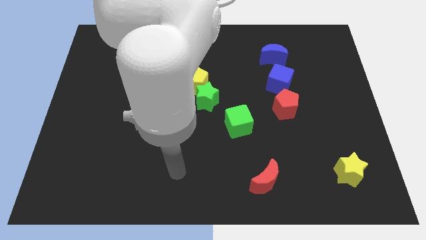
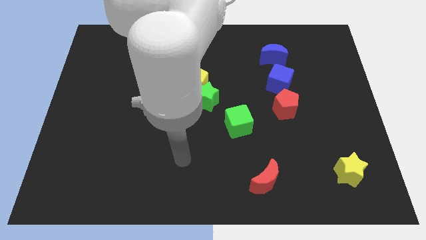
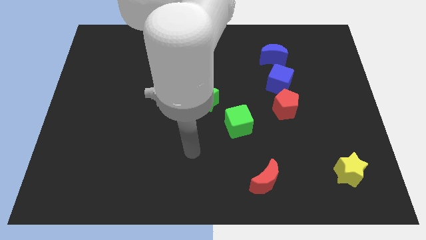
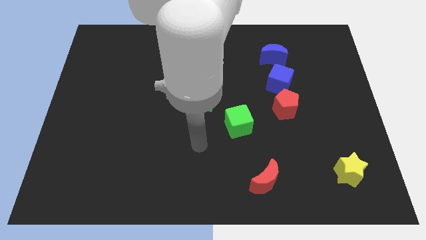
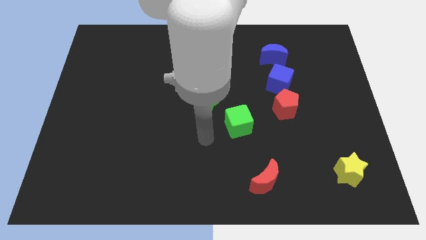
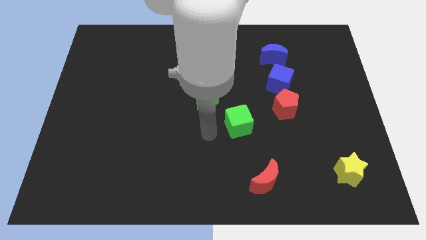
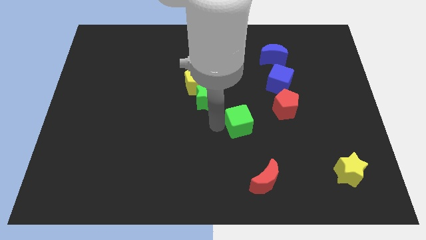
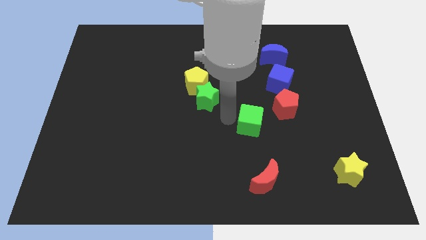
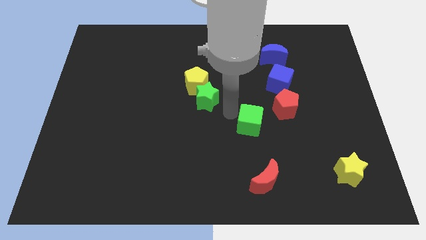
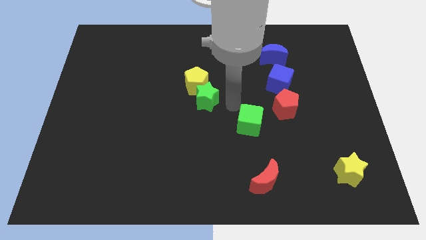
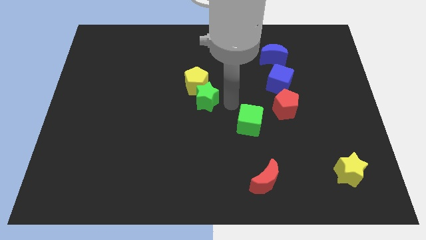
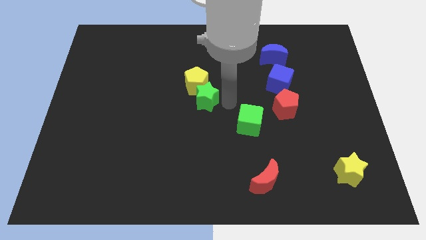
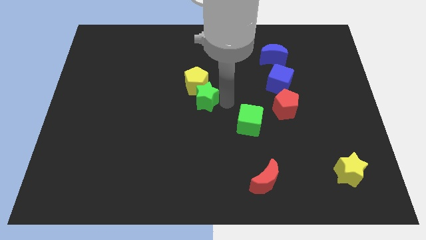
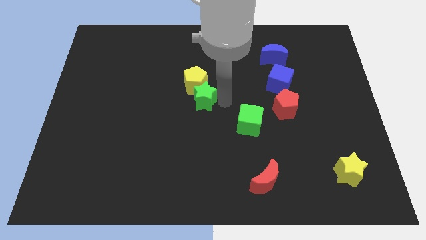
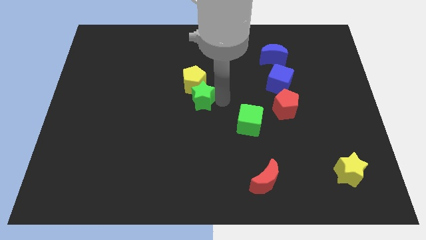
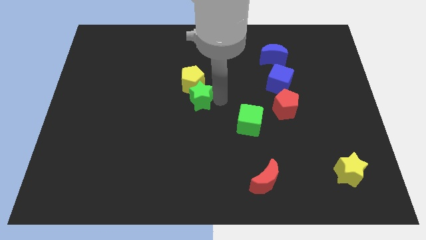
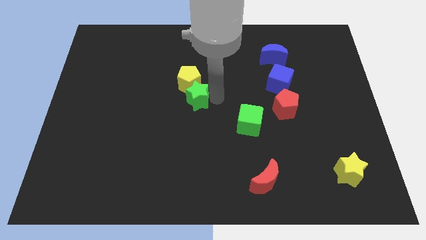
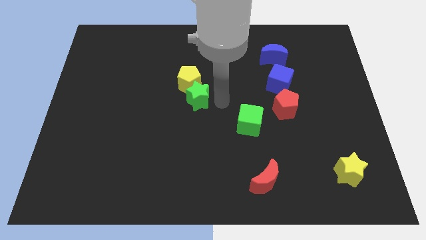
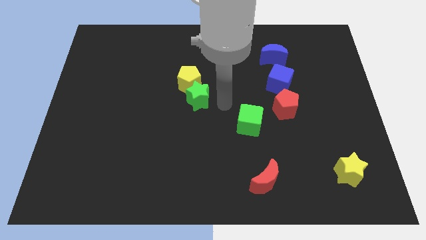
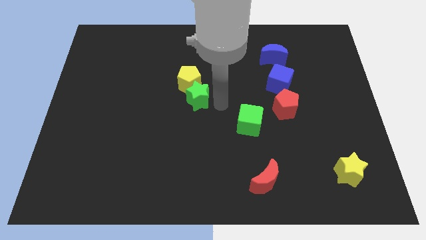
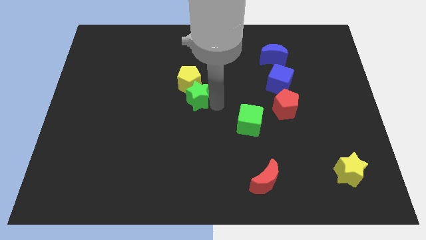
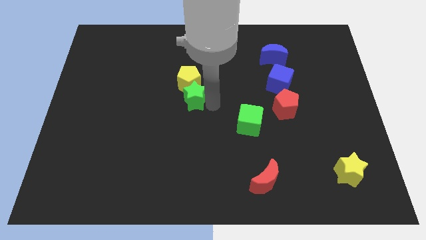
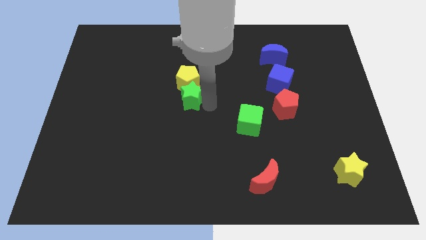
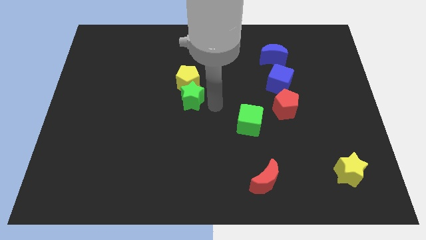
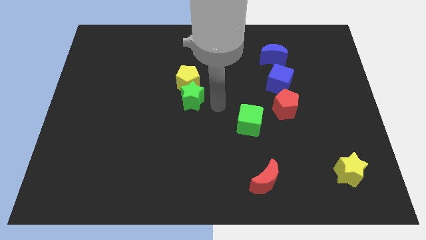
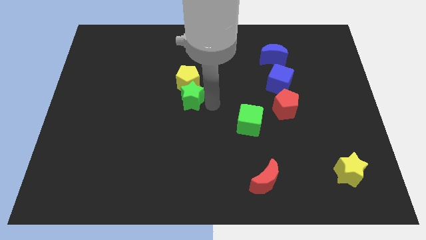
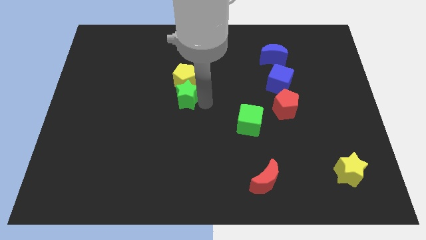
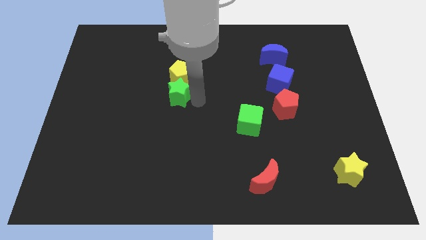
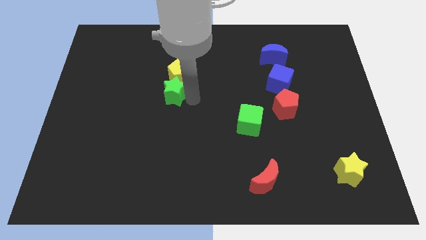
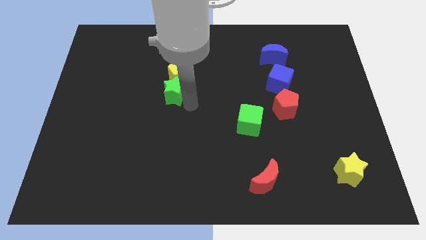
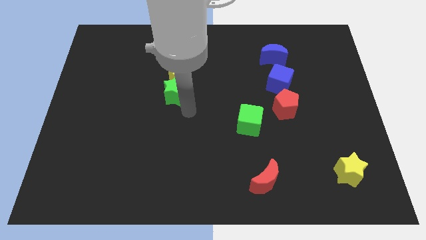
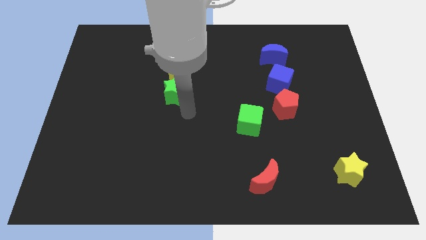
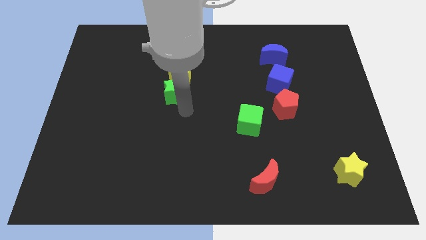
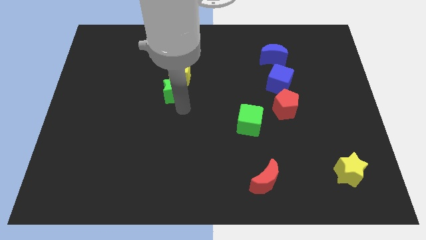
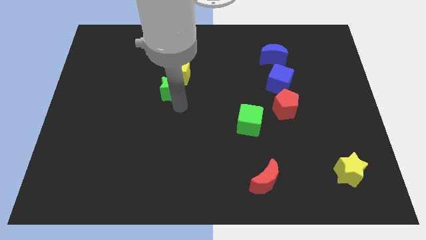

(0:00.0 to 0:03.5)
slightly push the green star diagonally up and left

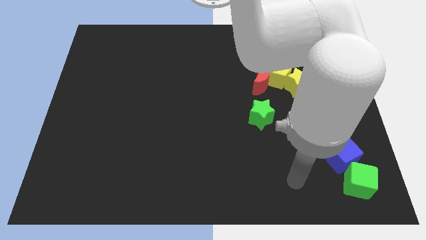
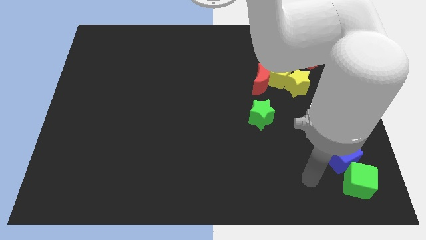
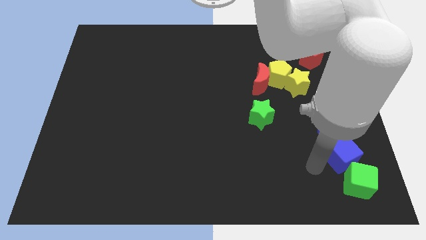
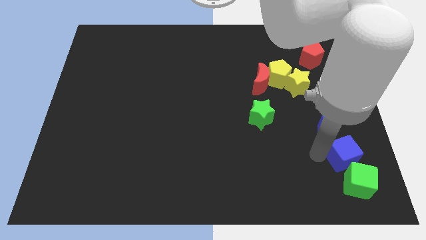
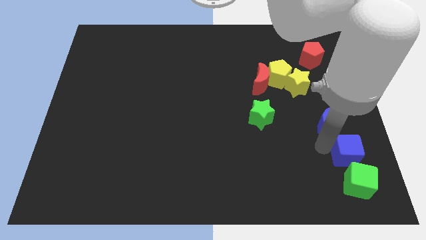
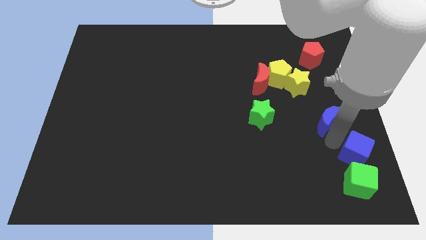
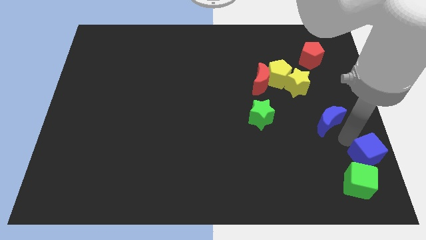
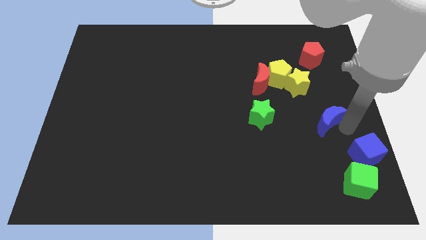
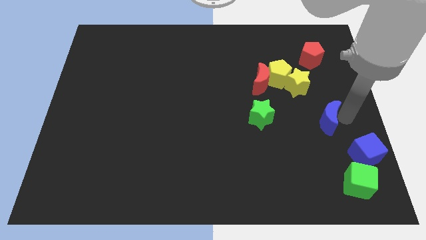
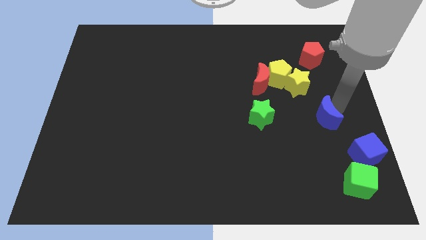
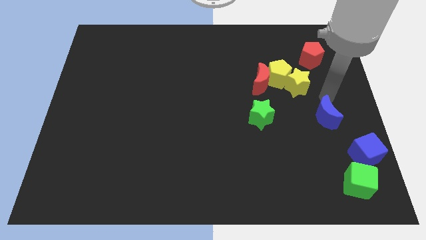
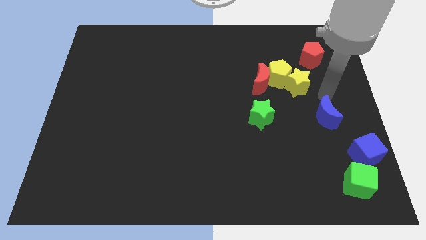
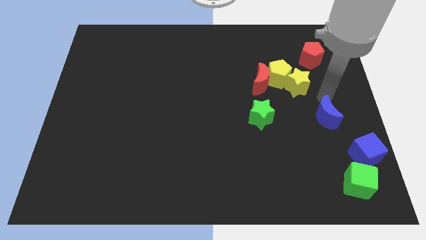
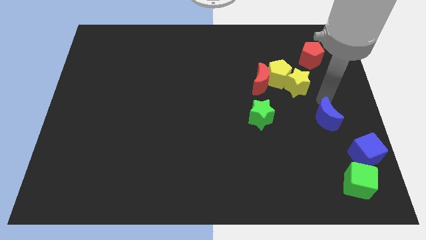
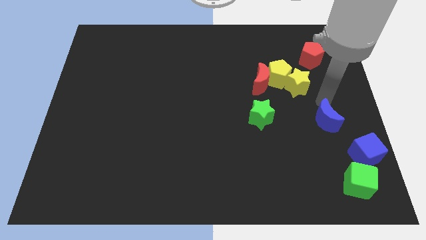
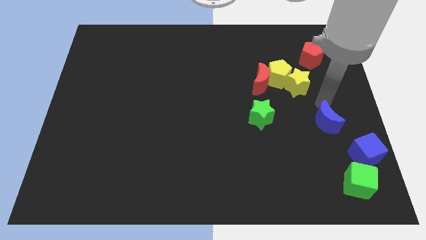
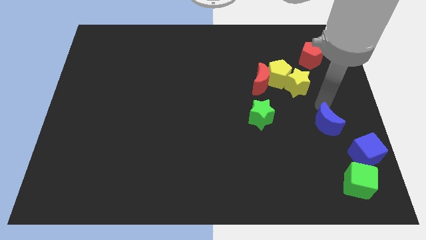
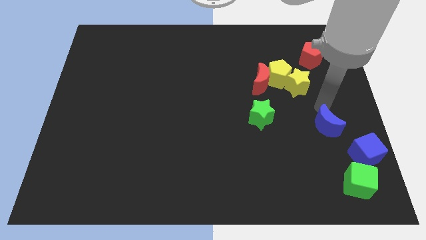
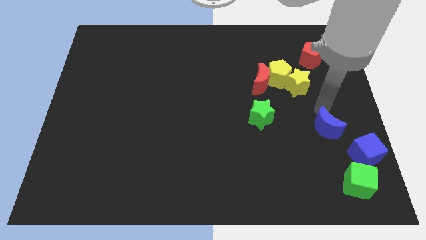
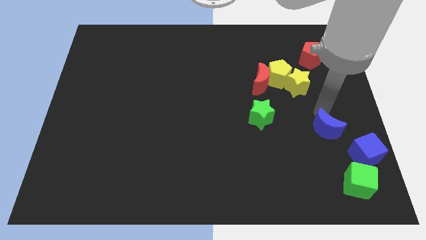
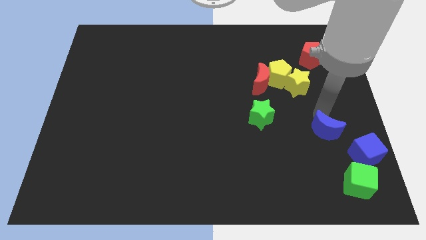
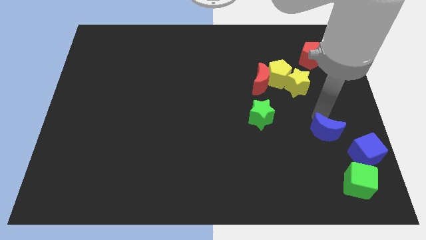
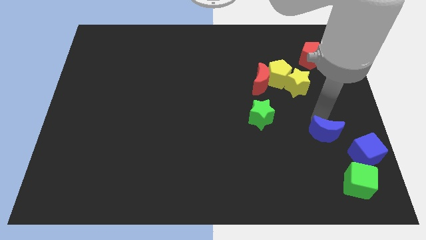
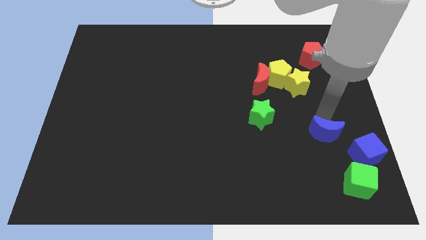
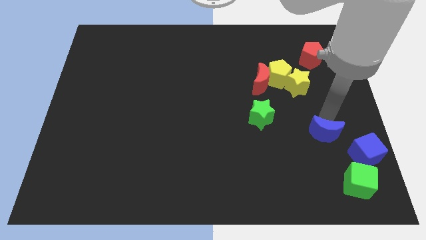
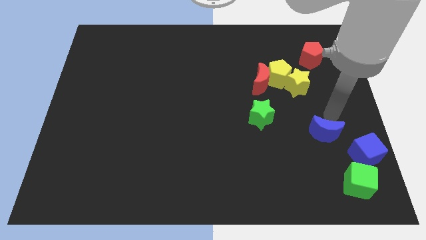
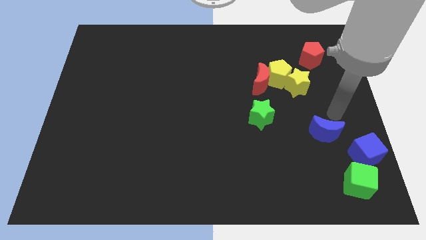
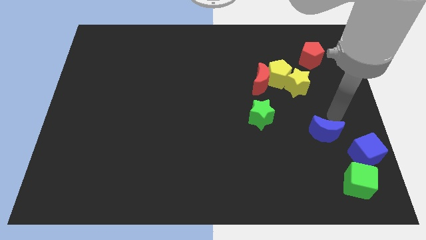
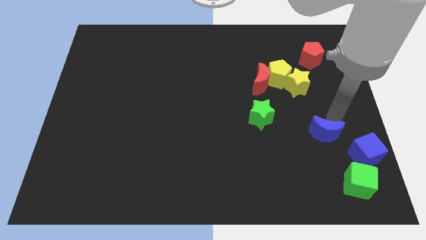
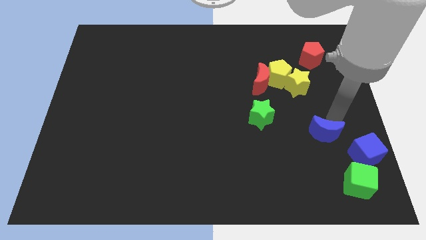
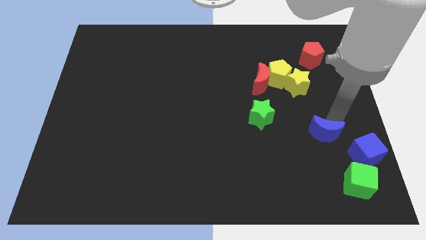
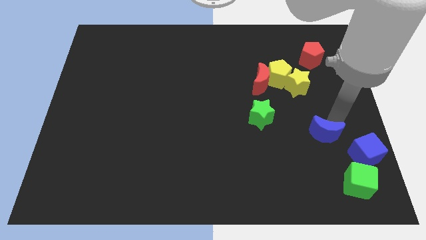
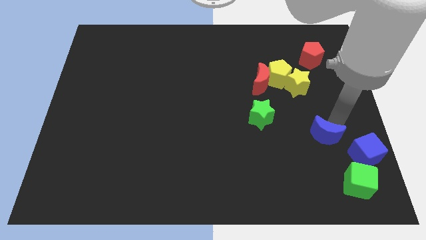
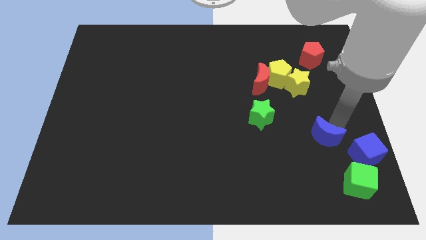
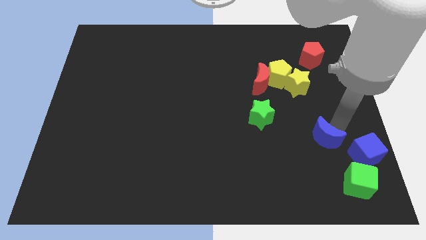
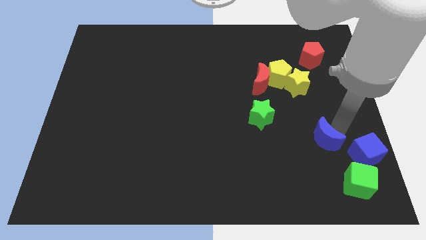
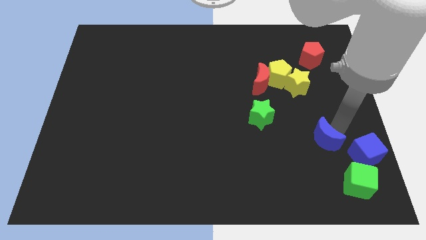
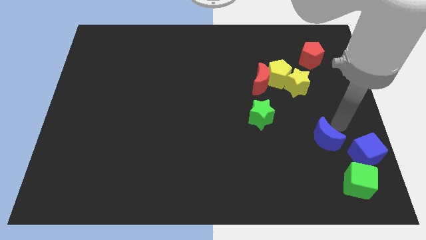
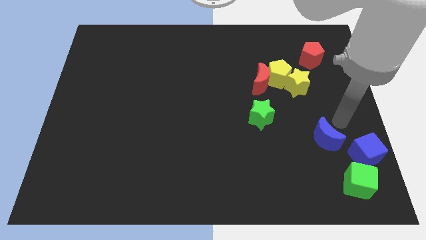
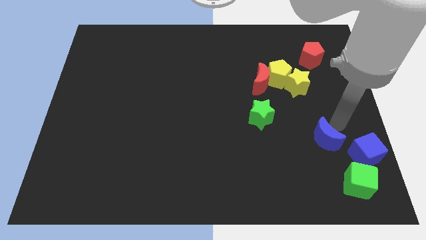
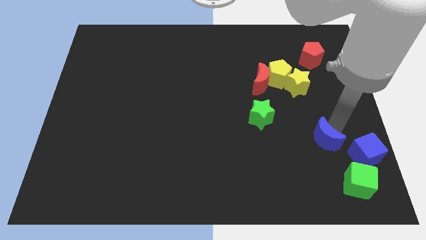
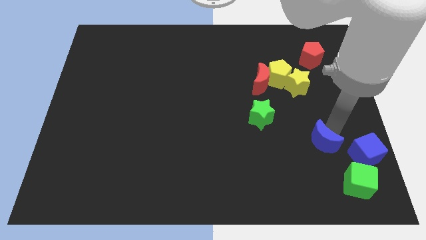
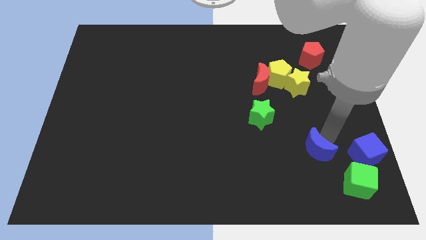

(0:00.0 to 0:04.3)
push the blue moon diagonally down and left a little

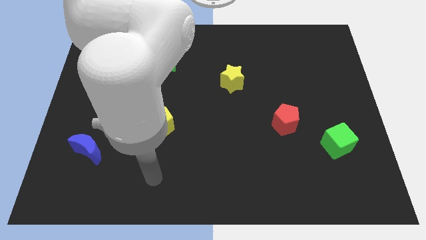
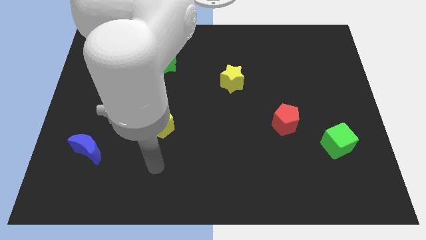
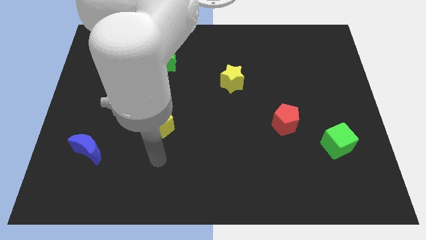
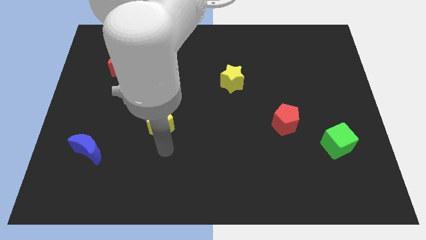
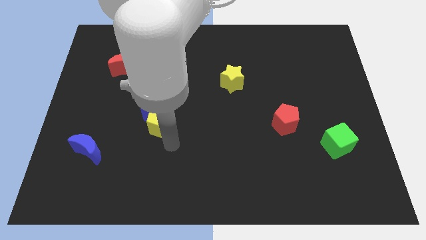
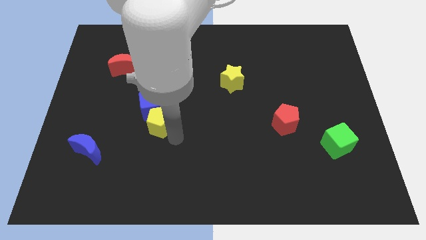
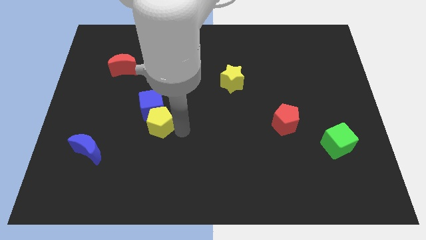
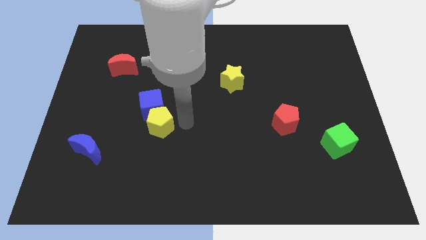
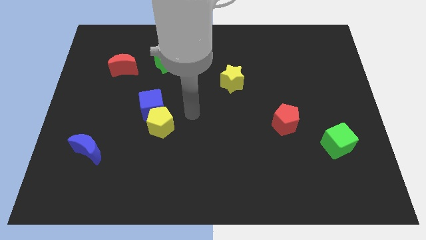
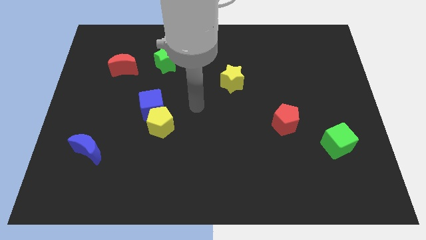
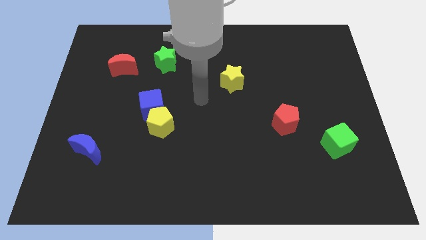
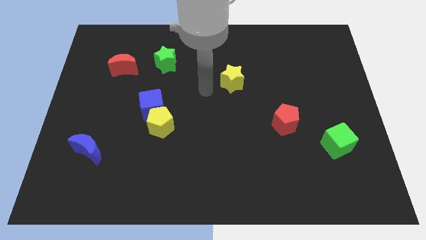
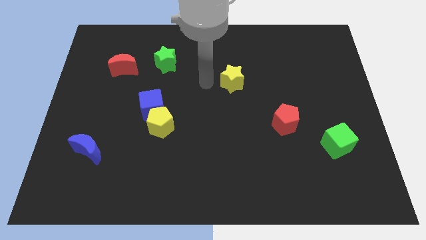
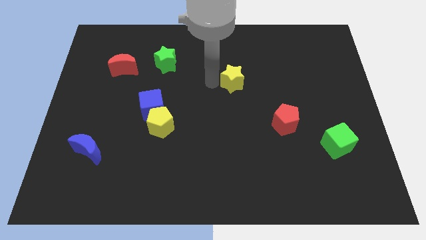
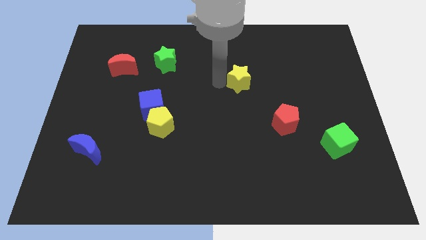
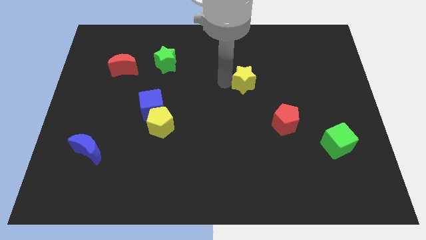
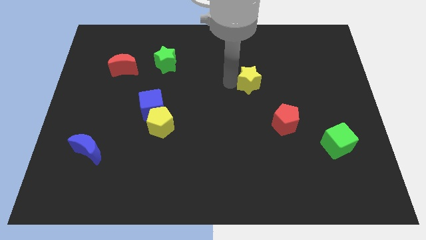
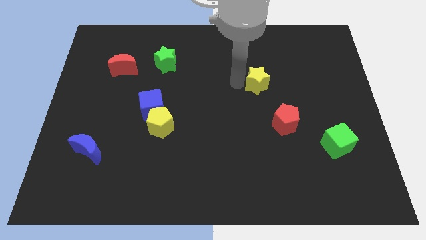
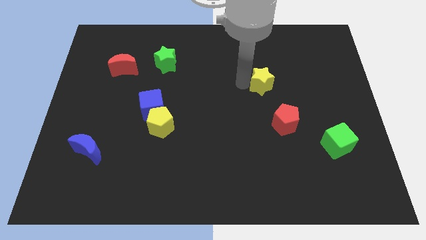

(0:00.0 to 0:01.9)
move the yellow star a bit right
